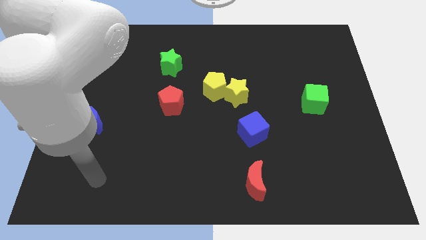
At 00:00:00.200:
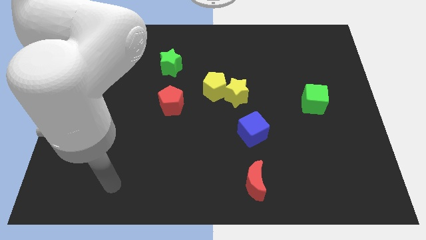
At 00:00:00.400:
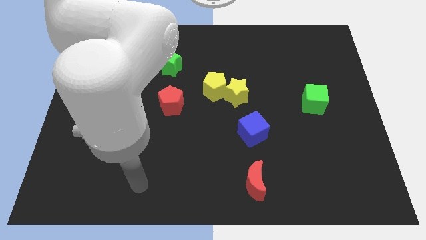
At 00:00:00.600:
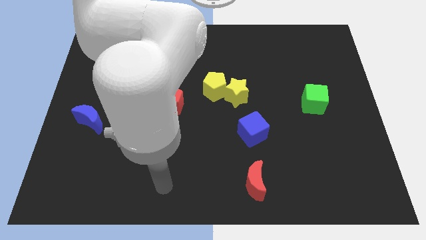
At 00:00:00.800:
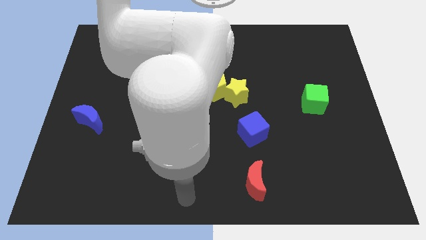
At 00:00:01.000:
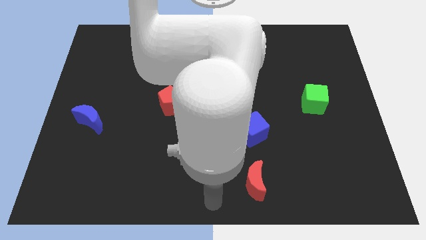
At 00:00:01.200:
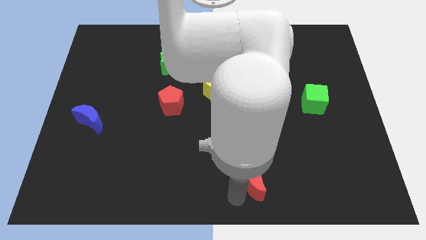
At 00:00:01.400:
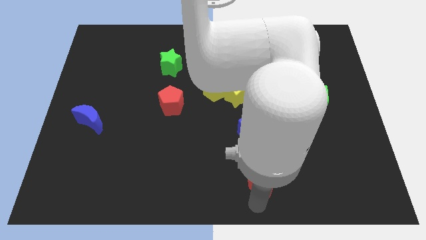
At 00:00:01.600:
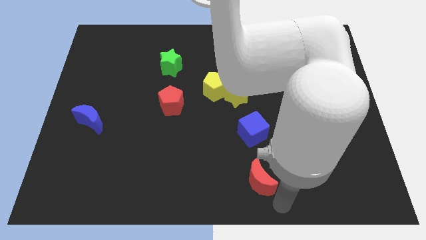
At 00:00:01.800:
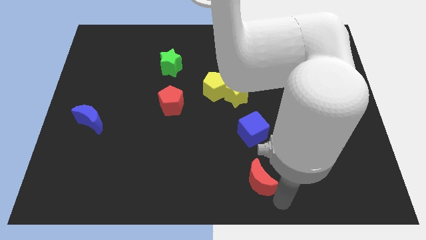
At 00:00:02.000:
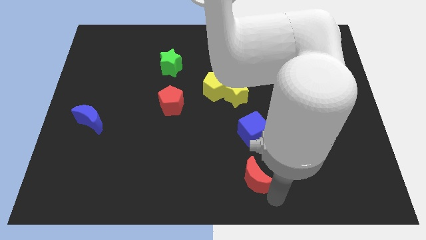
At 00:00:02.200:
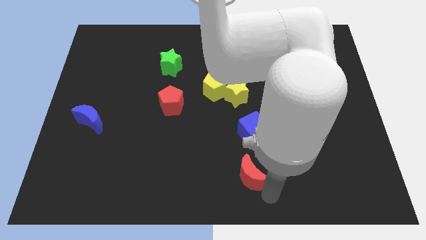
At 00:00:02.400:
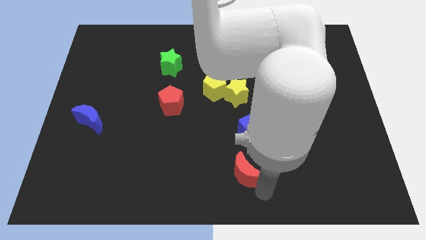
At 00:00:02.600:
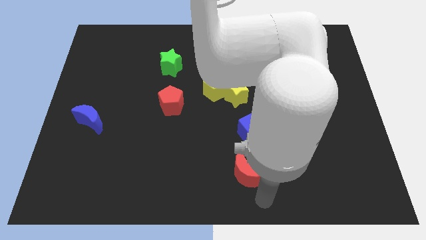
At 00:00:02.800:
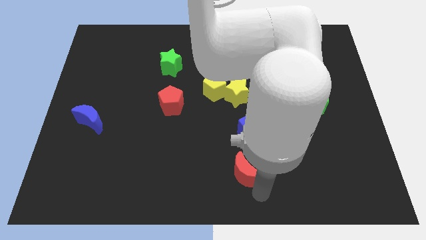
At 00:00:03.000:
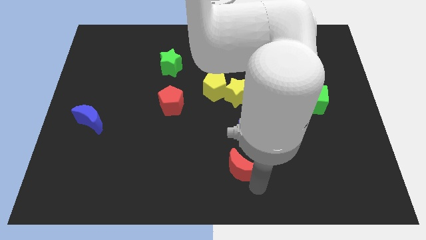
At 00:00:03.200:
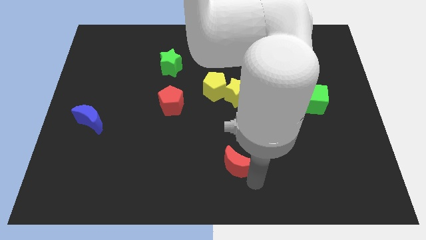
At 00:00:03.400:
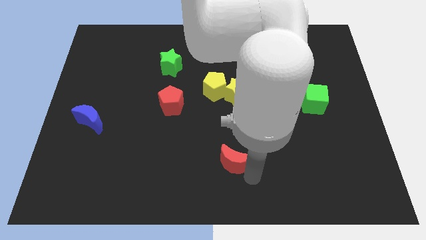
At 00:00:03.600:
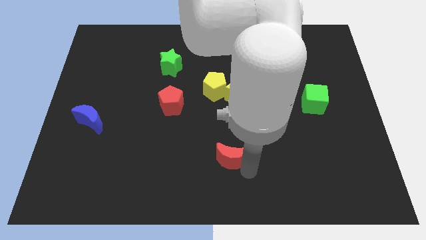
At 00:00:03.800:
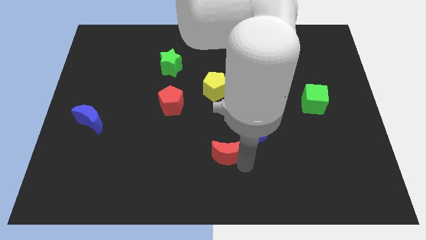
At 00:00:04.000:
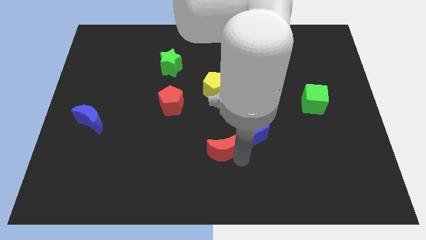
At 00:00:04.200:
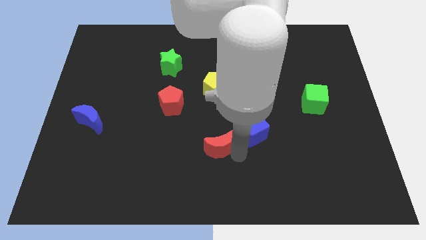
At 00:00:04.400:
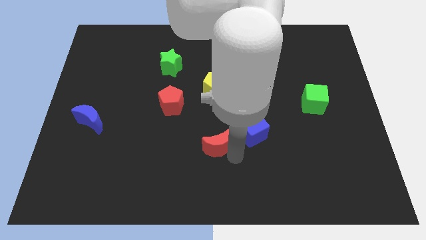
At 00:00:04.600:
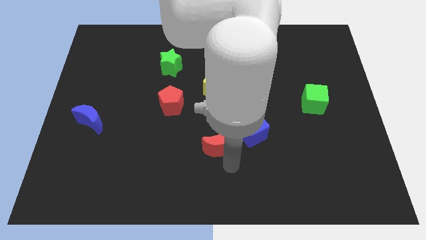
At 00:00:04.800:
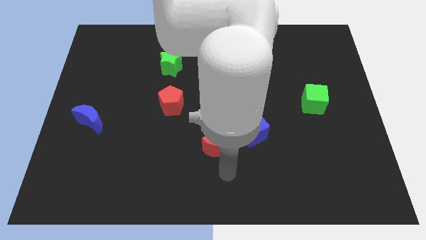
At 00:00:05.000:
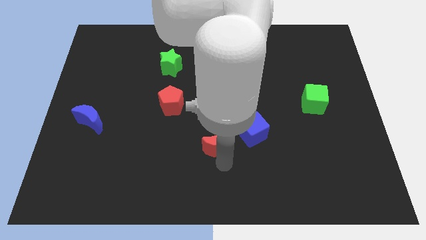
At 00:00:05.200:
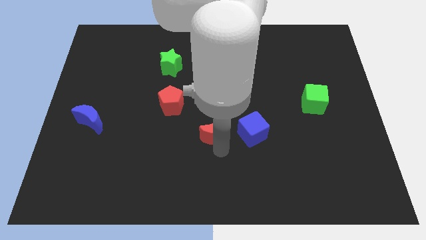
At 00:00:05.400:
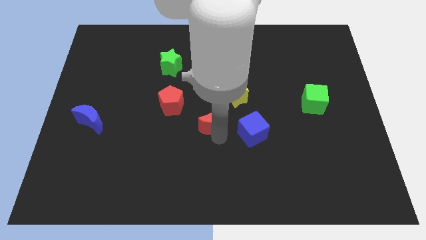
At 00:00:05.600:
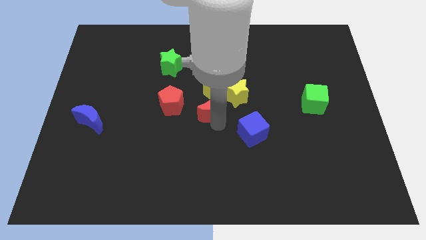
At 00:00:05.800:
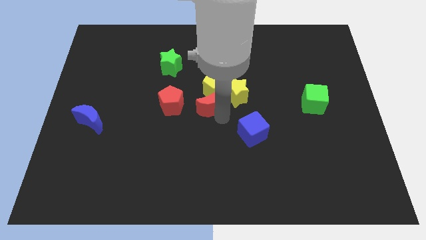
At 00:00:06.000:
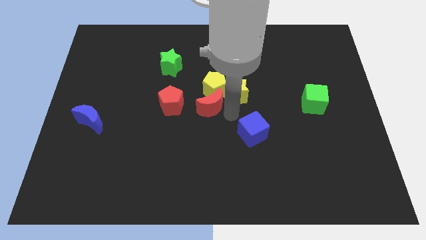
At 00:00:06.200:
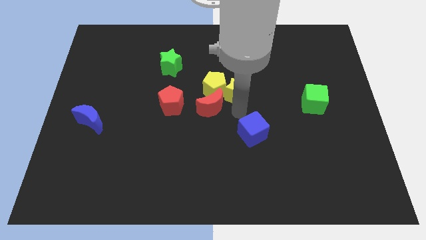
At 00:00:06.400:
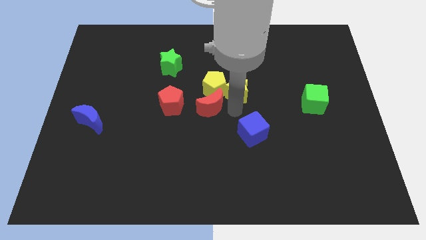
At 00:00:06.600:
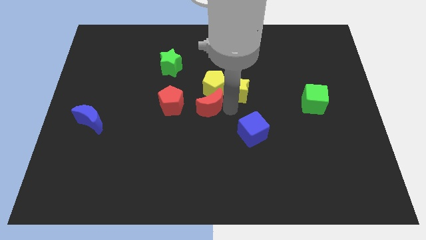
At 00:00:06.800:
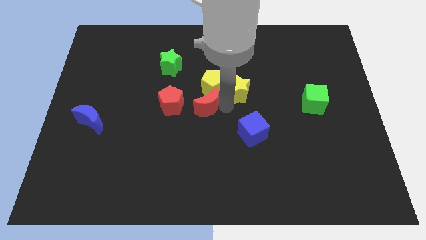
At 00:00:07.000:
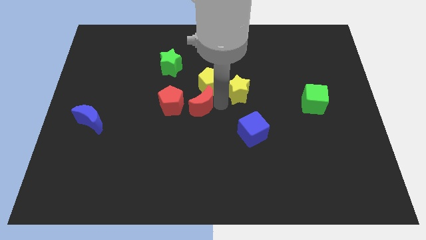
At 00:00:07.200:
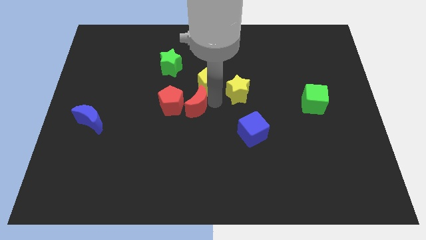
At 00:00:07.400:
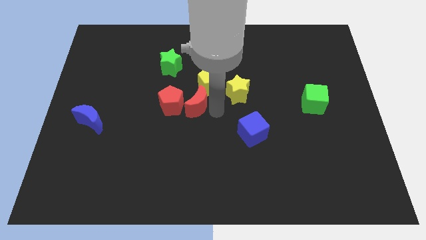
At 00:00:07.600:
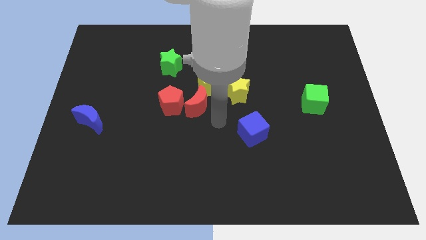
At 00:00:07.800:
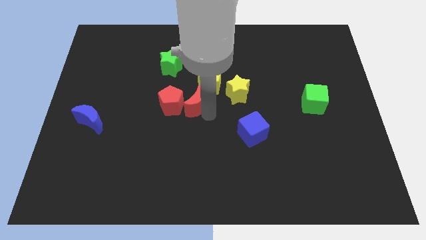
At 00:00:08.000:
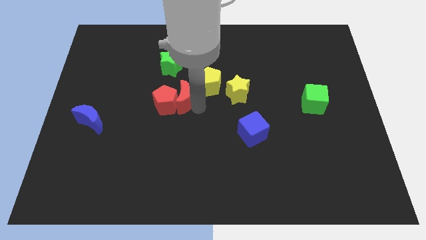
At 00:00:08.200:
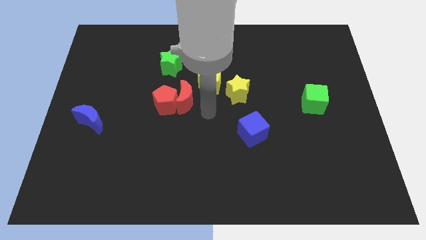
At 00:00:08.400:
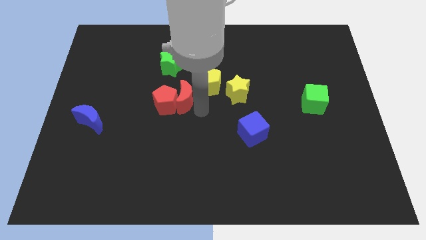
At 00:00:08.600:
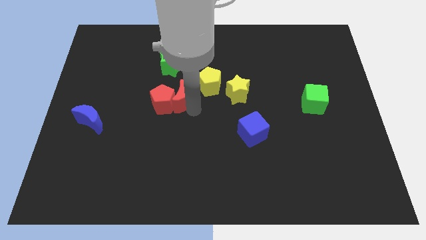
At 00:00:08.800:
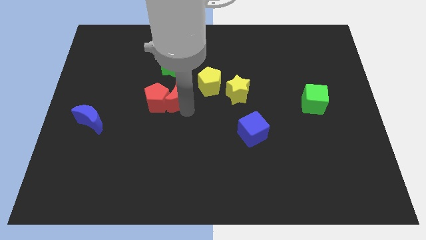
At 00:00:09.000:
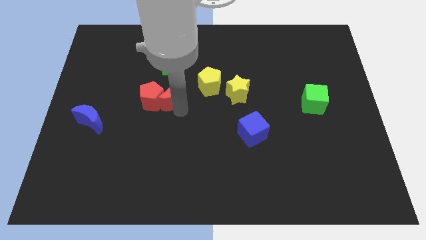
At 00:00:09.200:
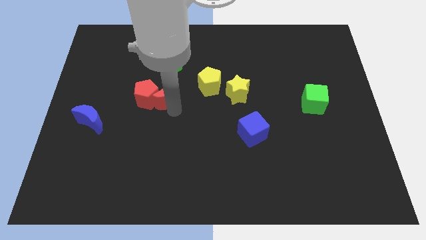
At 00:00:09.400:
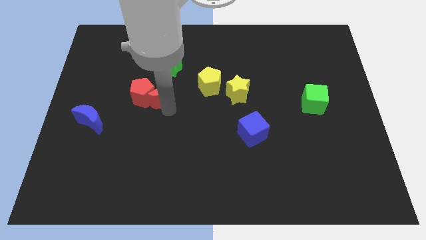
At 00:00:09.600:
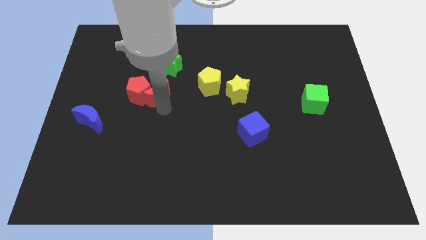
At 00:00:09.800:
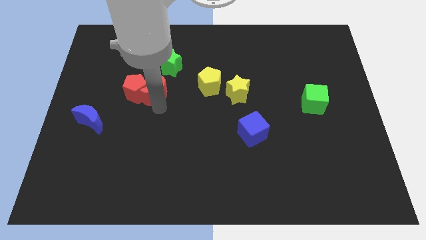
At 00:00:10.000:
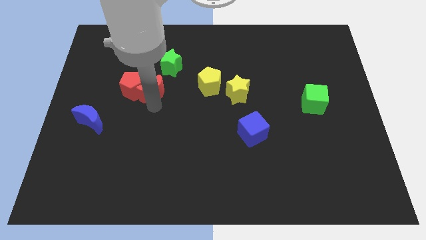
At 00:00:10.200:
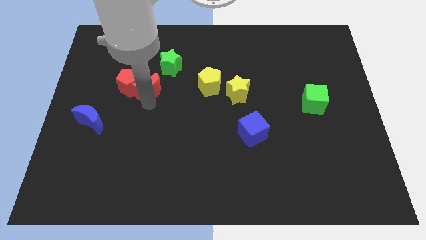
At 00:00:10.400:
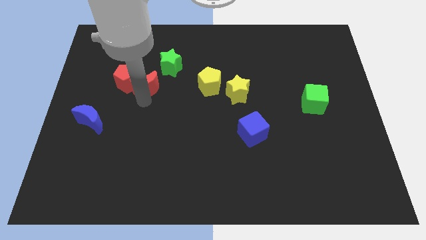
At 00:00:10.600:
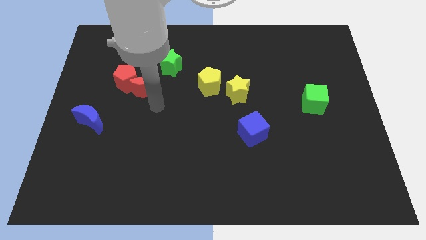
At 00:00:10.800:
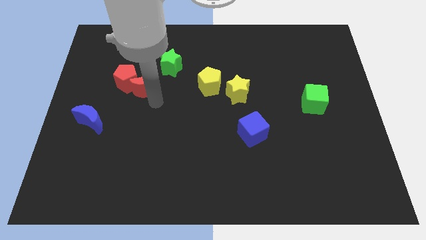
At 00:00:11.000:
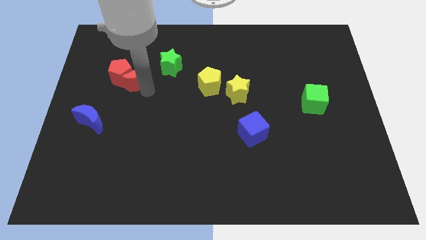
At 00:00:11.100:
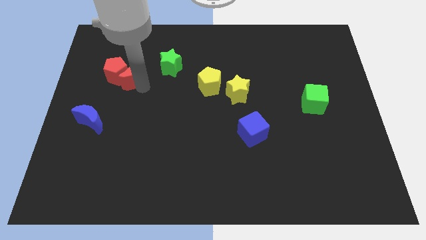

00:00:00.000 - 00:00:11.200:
move the red moon left of the green star

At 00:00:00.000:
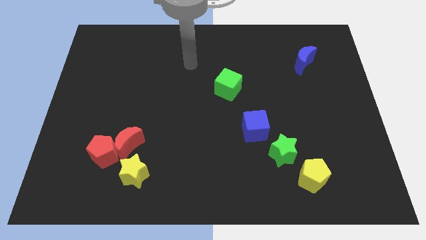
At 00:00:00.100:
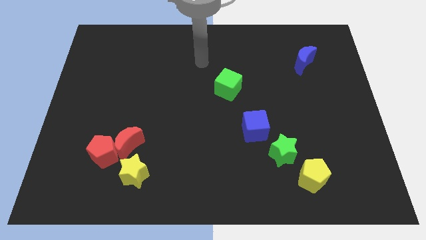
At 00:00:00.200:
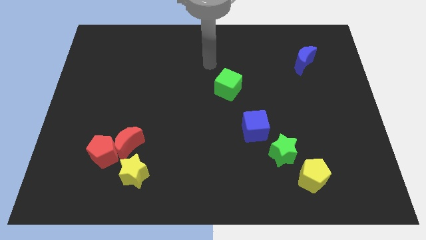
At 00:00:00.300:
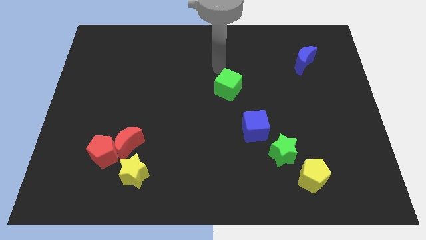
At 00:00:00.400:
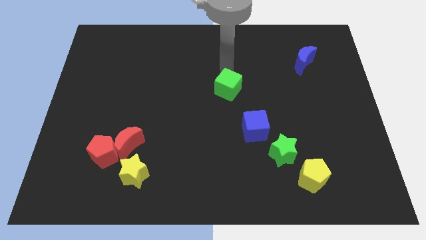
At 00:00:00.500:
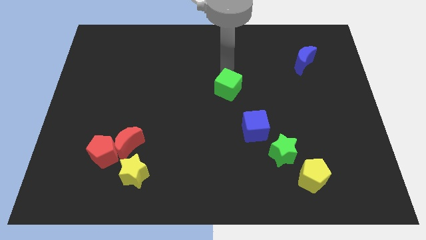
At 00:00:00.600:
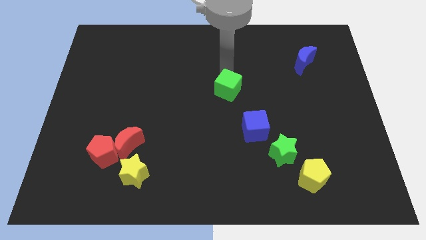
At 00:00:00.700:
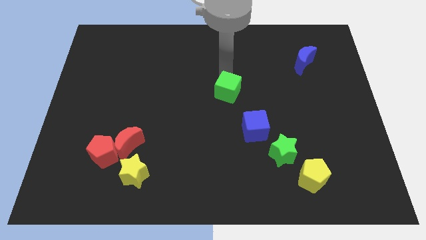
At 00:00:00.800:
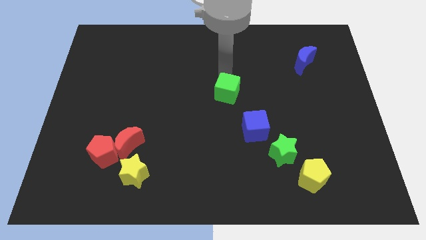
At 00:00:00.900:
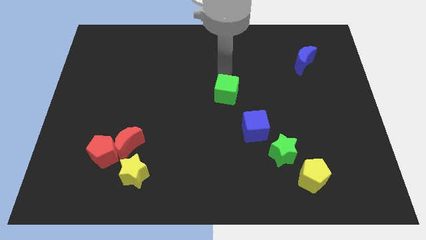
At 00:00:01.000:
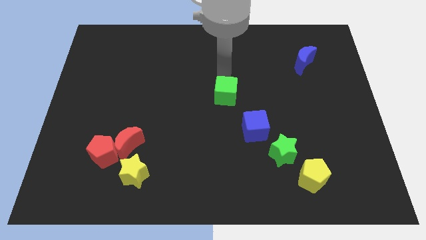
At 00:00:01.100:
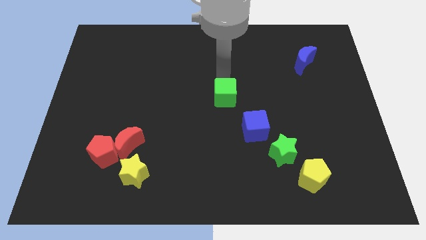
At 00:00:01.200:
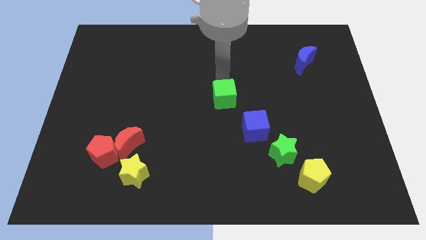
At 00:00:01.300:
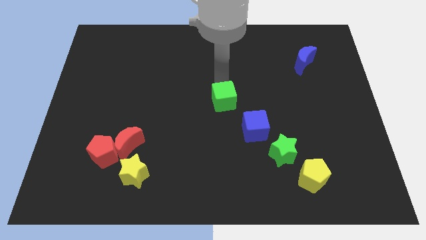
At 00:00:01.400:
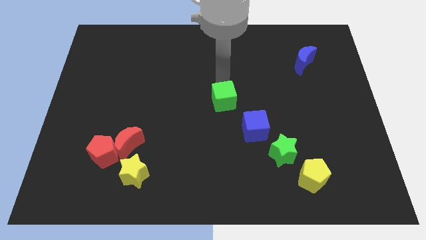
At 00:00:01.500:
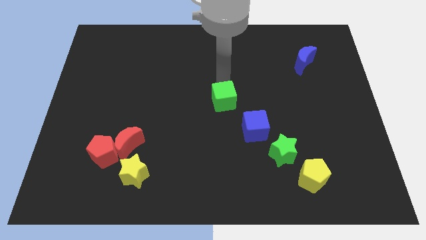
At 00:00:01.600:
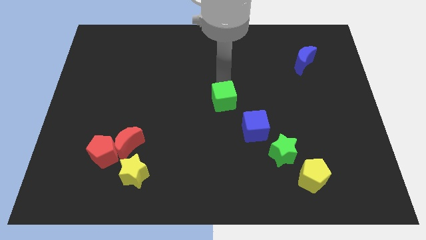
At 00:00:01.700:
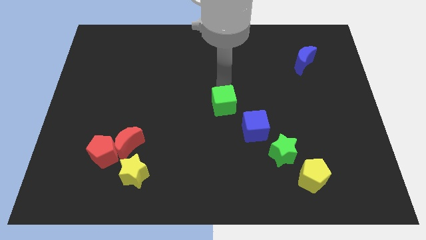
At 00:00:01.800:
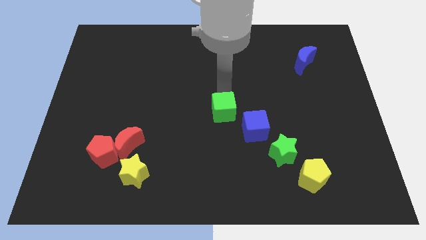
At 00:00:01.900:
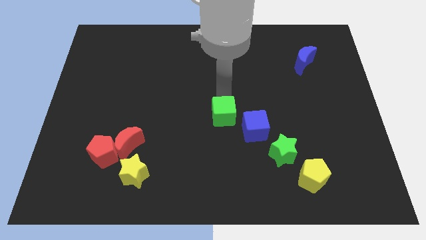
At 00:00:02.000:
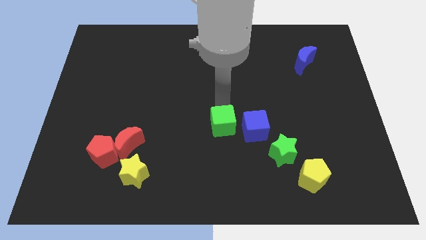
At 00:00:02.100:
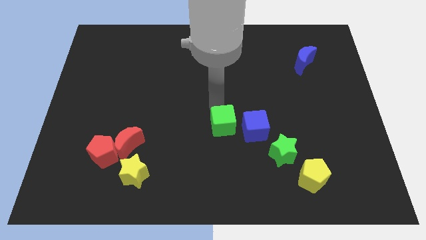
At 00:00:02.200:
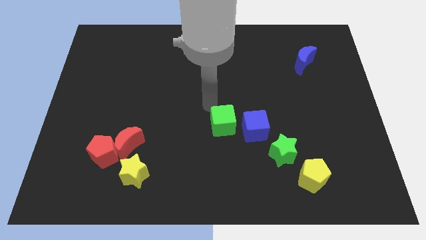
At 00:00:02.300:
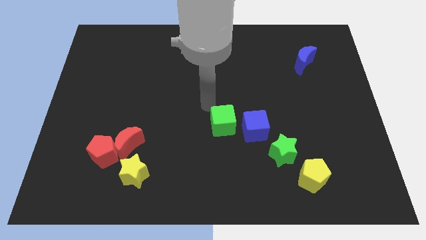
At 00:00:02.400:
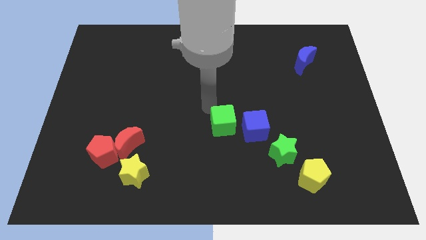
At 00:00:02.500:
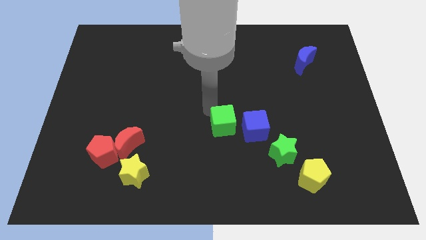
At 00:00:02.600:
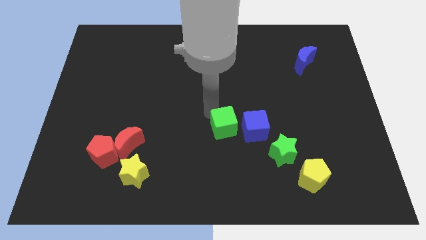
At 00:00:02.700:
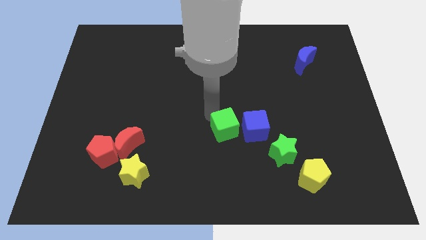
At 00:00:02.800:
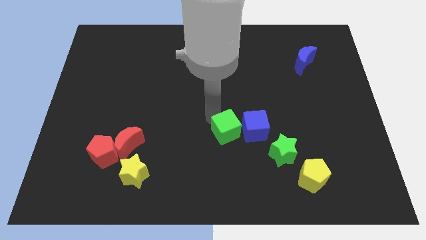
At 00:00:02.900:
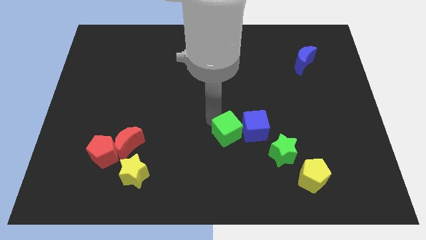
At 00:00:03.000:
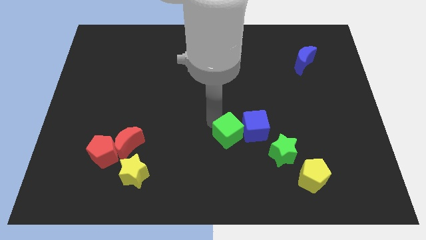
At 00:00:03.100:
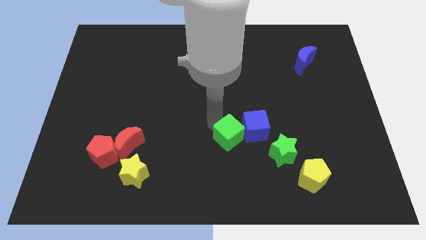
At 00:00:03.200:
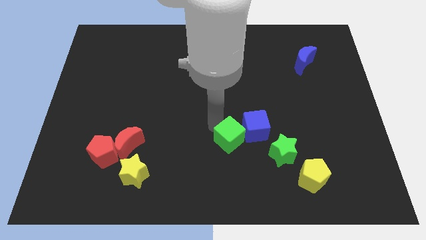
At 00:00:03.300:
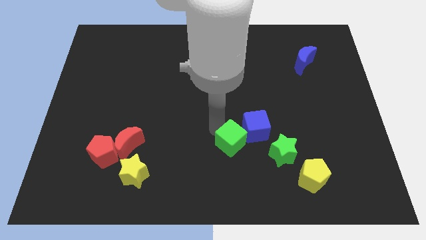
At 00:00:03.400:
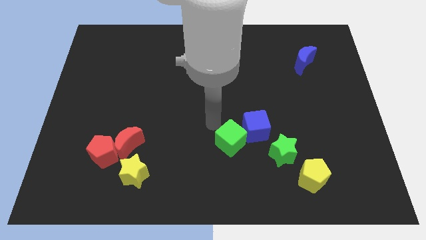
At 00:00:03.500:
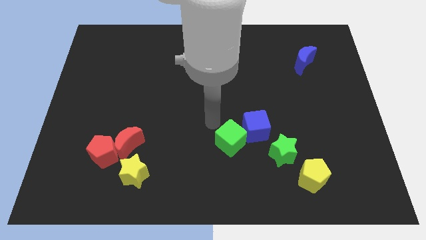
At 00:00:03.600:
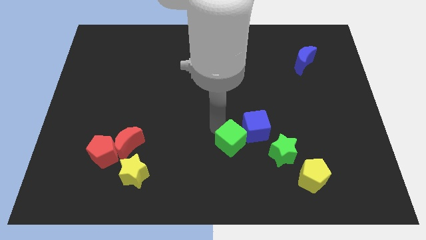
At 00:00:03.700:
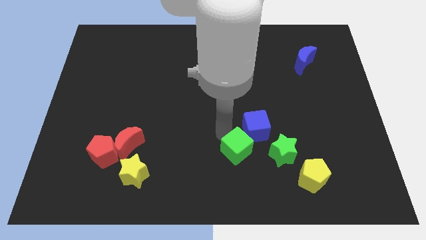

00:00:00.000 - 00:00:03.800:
push the green cube to the bottom side of the blue cube
